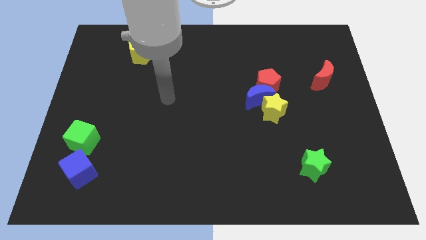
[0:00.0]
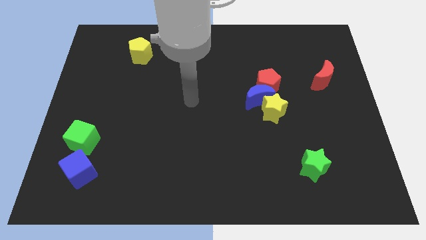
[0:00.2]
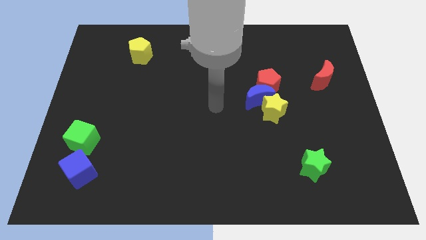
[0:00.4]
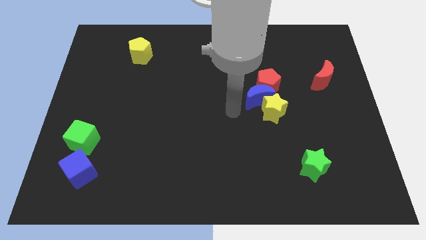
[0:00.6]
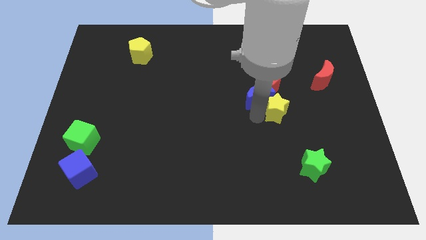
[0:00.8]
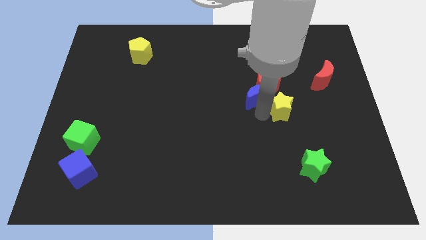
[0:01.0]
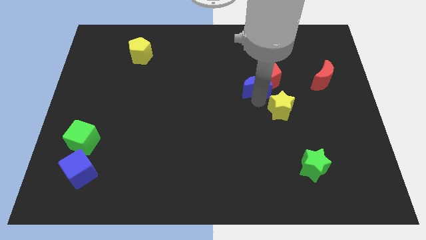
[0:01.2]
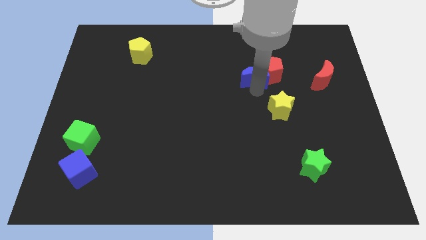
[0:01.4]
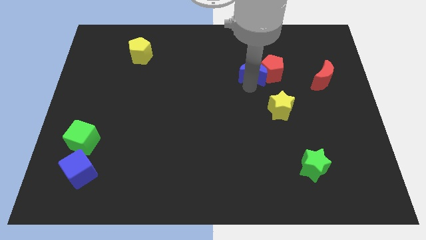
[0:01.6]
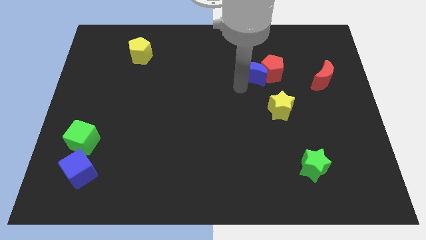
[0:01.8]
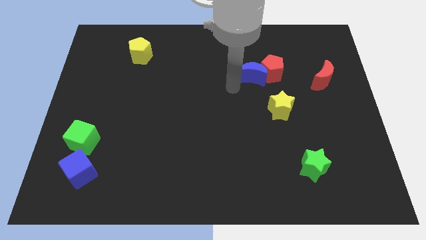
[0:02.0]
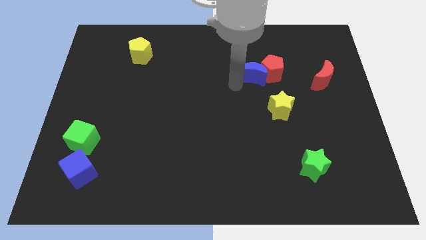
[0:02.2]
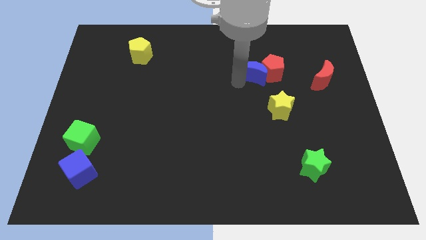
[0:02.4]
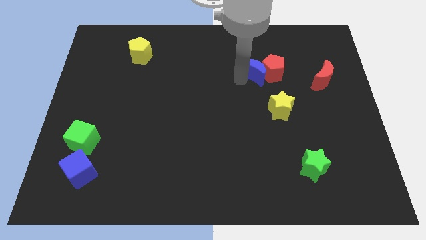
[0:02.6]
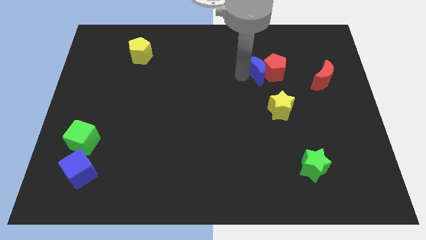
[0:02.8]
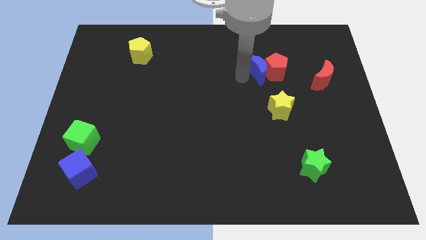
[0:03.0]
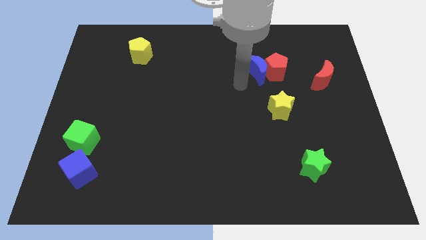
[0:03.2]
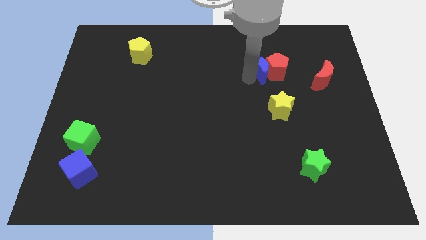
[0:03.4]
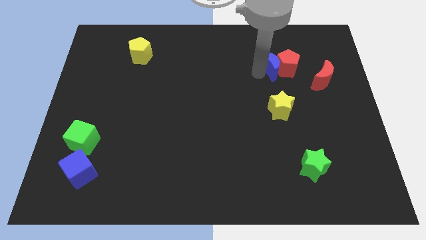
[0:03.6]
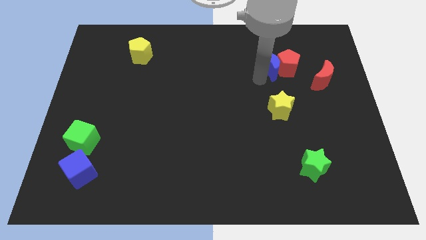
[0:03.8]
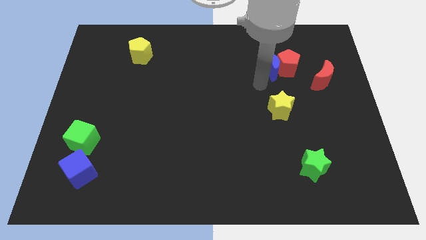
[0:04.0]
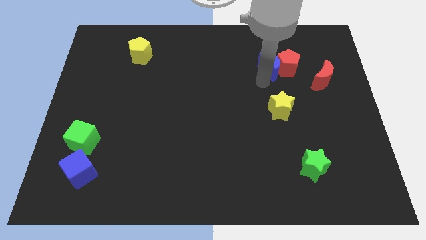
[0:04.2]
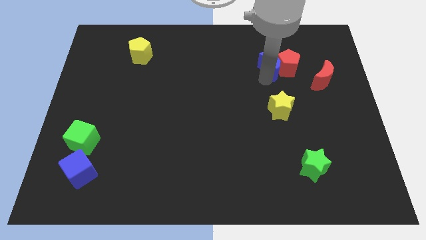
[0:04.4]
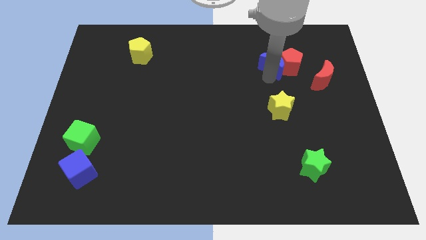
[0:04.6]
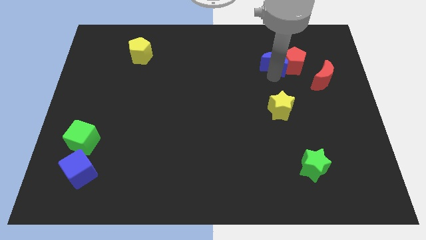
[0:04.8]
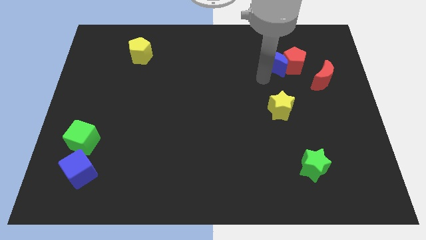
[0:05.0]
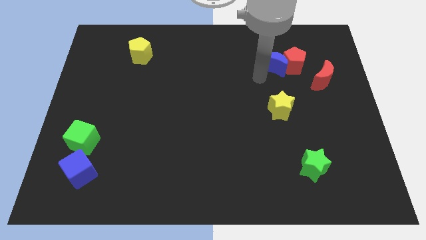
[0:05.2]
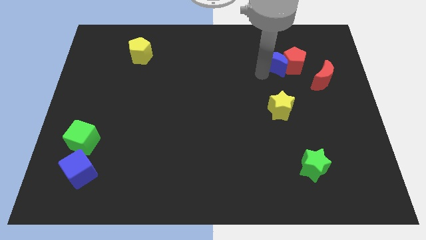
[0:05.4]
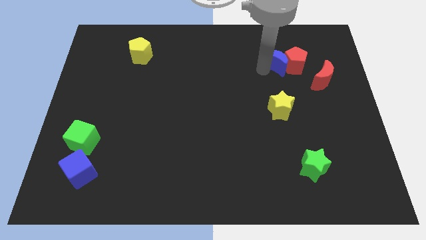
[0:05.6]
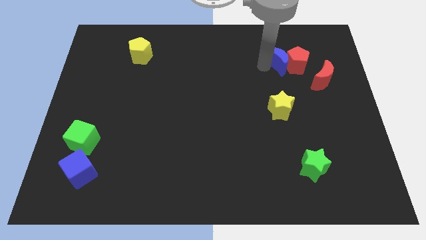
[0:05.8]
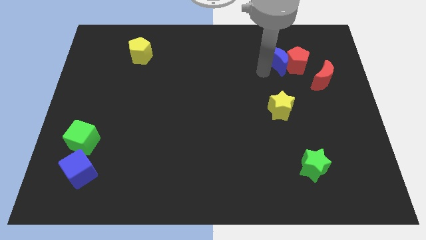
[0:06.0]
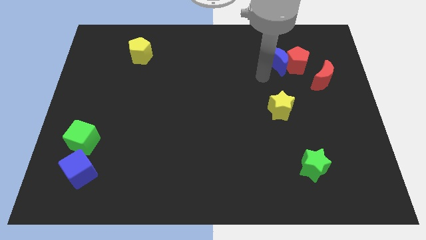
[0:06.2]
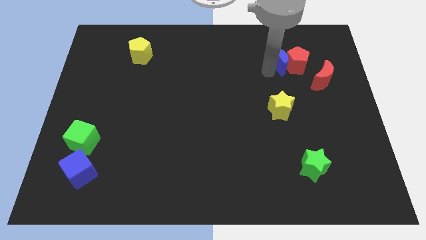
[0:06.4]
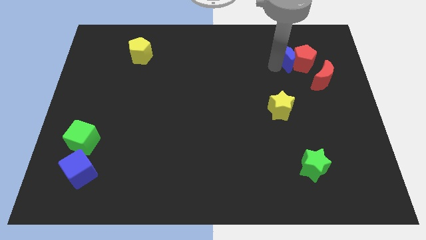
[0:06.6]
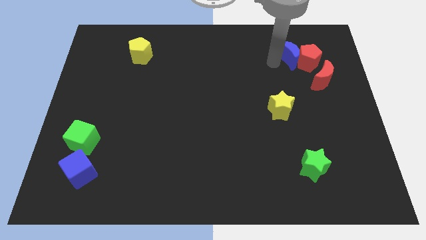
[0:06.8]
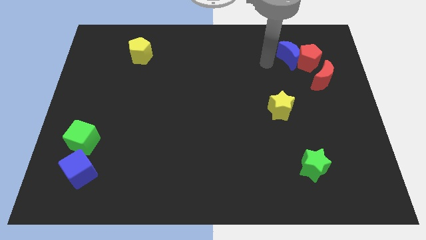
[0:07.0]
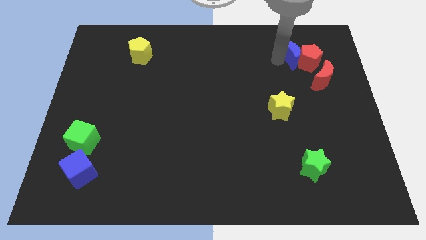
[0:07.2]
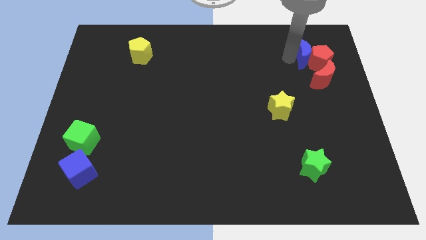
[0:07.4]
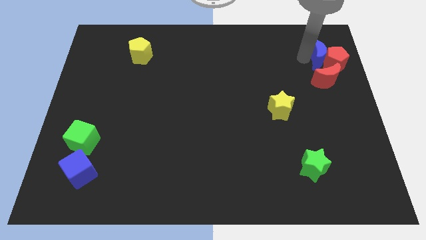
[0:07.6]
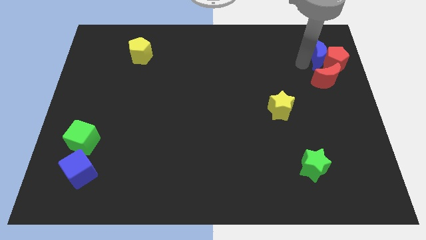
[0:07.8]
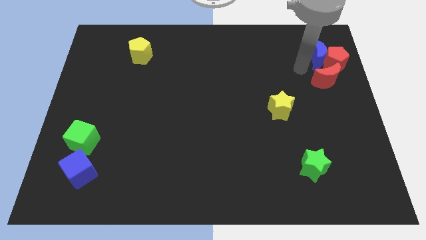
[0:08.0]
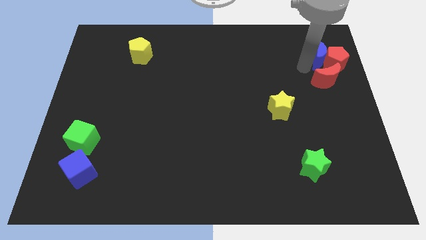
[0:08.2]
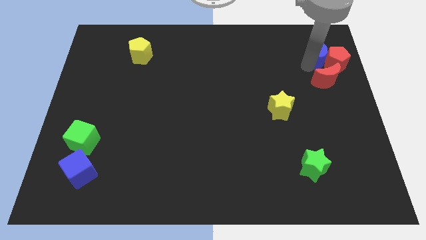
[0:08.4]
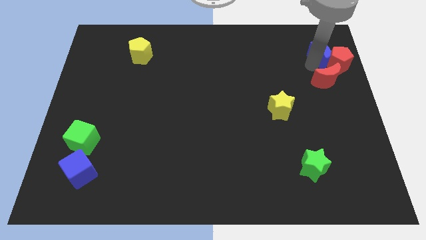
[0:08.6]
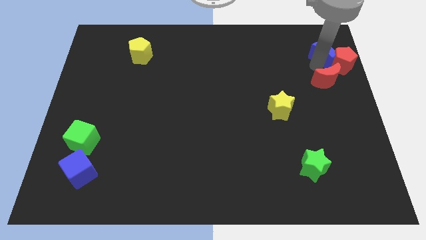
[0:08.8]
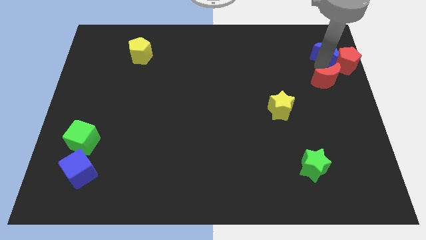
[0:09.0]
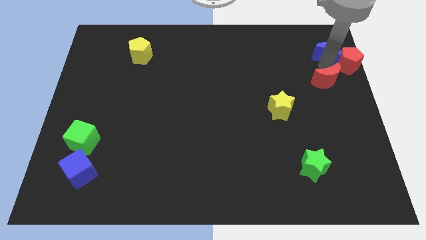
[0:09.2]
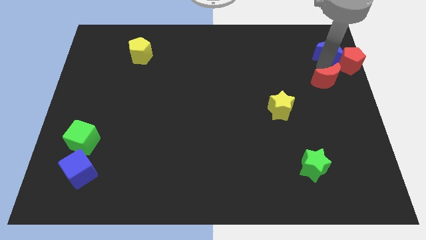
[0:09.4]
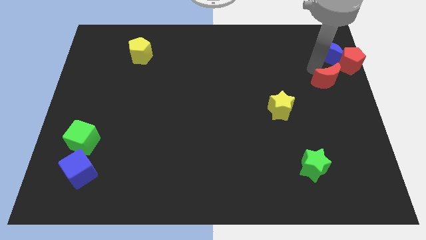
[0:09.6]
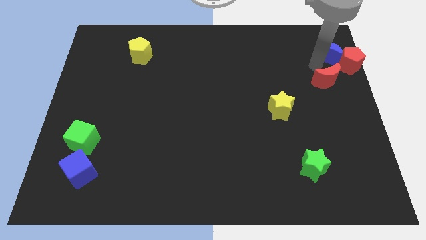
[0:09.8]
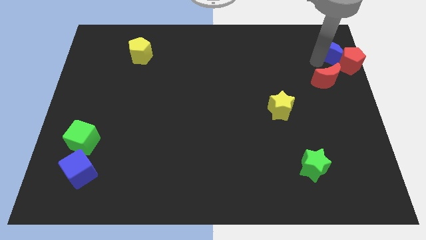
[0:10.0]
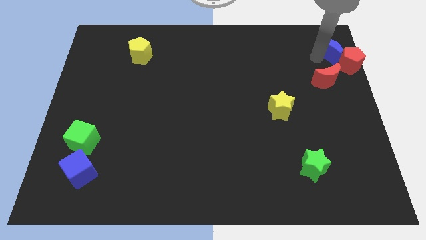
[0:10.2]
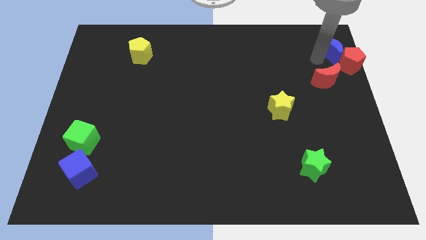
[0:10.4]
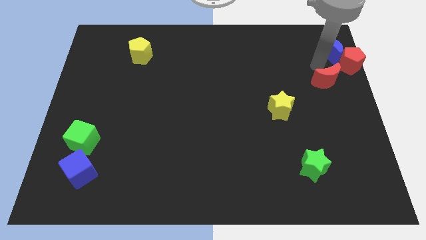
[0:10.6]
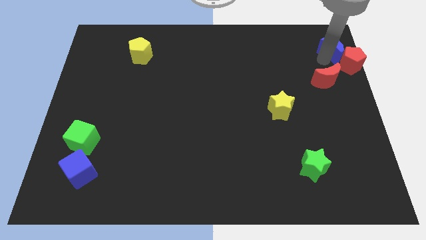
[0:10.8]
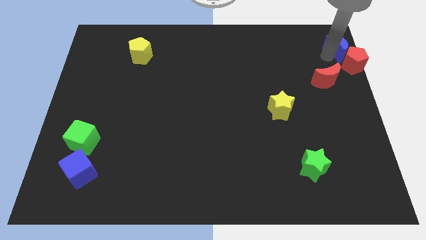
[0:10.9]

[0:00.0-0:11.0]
put the blue moon to the upper right corner
